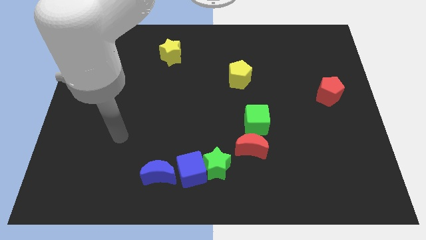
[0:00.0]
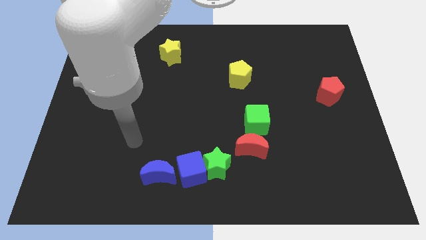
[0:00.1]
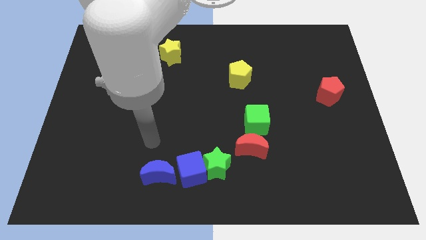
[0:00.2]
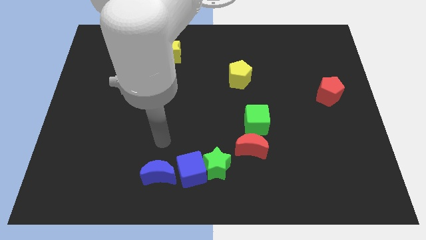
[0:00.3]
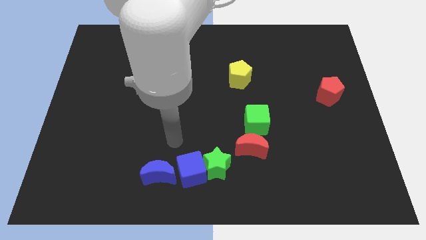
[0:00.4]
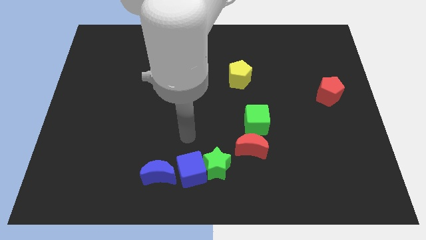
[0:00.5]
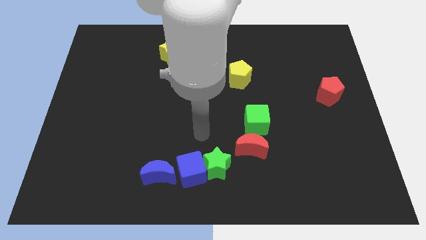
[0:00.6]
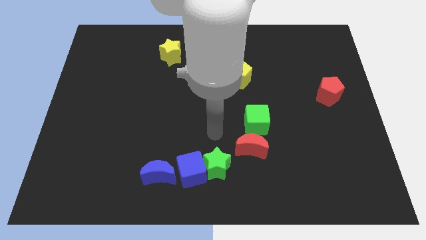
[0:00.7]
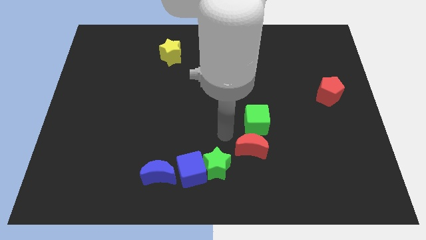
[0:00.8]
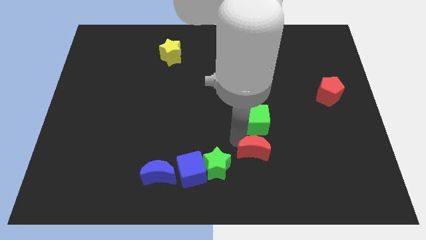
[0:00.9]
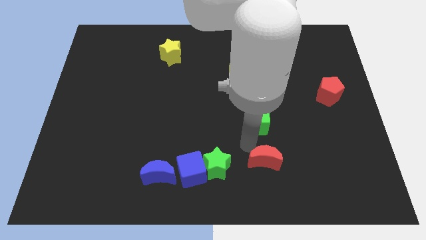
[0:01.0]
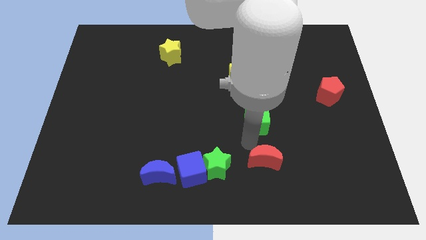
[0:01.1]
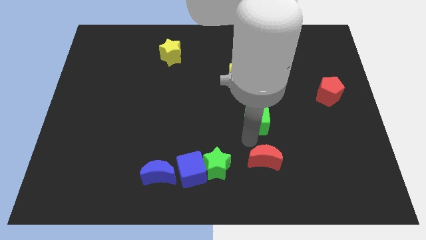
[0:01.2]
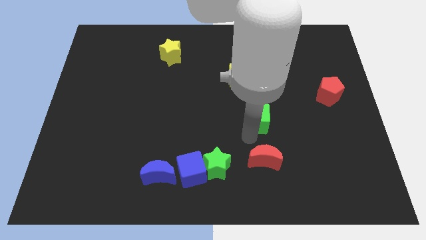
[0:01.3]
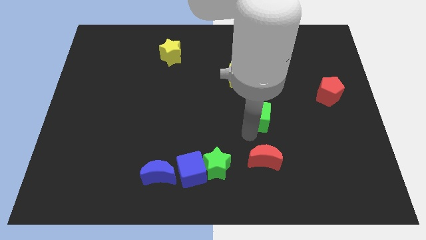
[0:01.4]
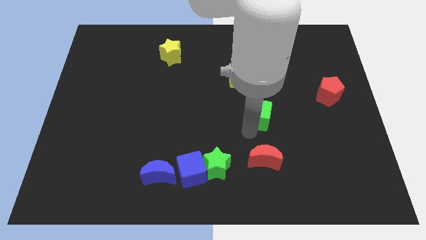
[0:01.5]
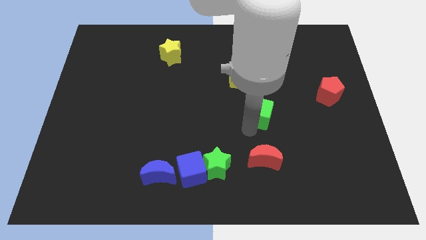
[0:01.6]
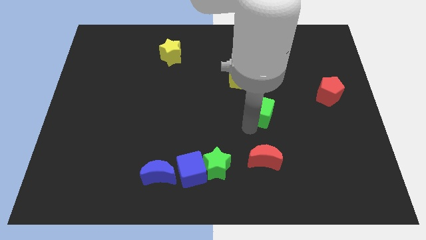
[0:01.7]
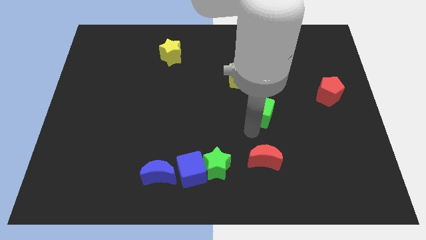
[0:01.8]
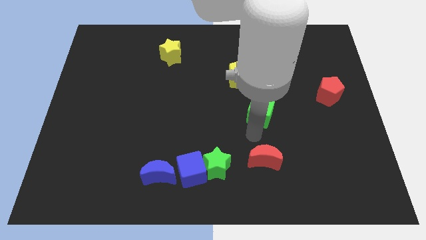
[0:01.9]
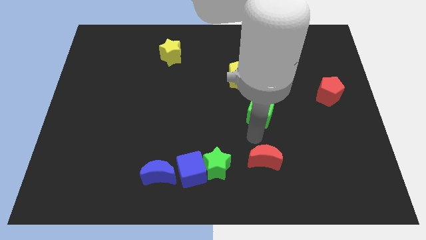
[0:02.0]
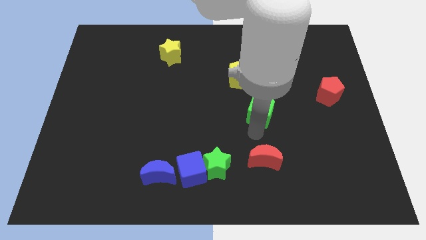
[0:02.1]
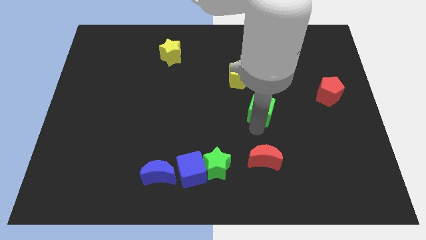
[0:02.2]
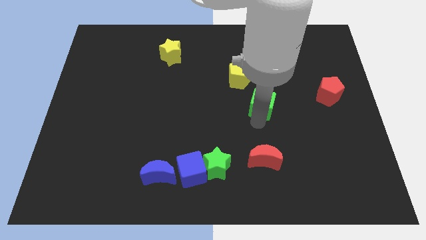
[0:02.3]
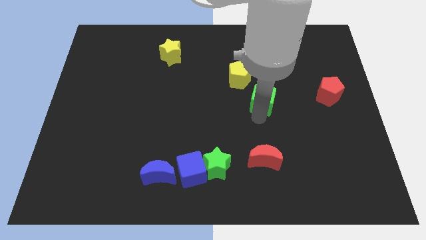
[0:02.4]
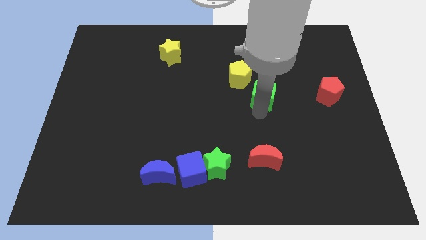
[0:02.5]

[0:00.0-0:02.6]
move the green cube up slightly

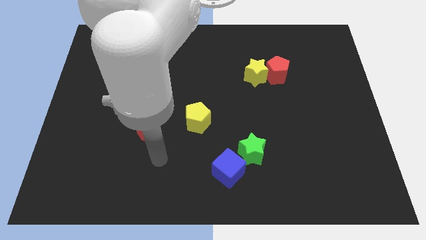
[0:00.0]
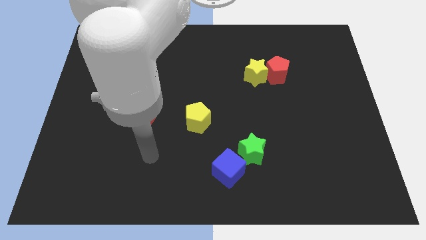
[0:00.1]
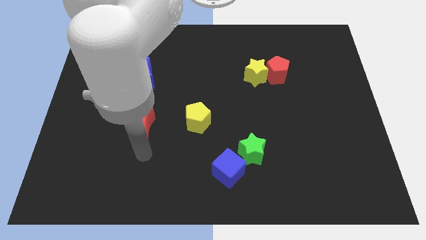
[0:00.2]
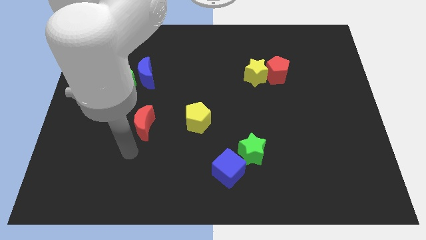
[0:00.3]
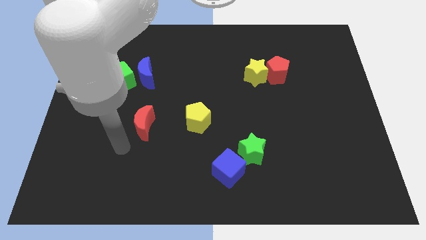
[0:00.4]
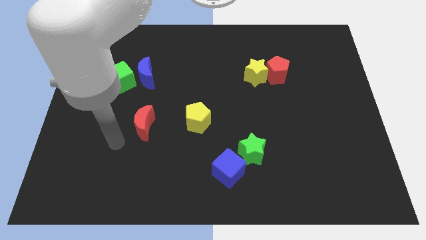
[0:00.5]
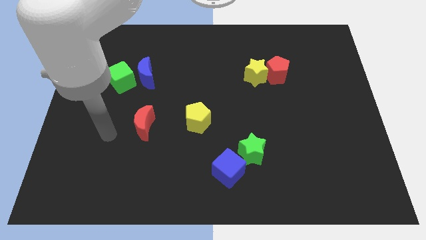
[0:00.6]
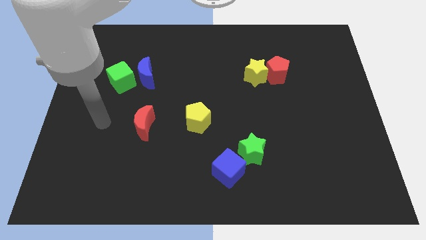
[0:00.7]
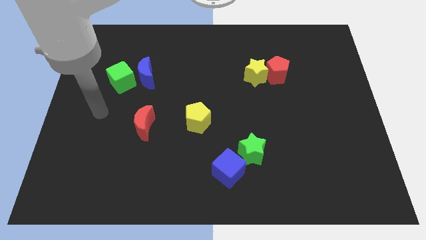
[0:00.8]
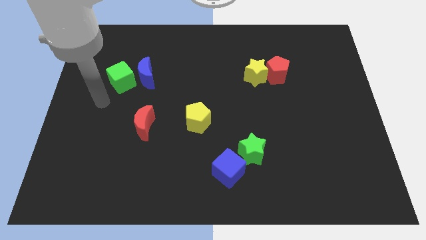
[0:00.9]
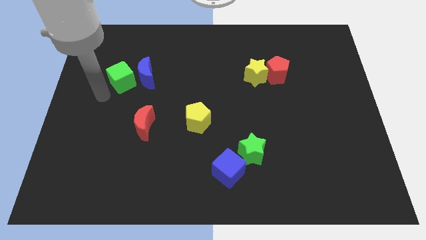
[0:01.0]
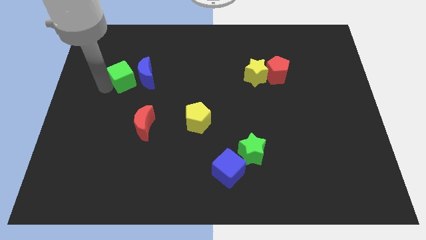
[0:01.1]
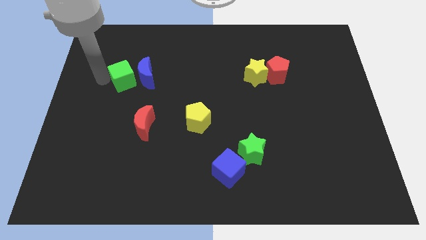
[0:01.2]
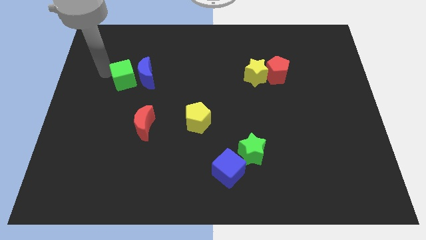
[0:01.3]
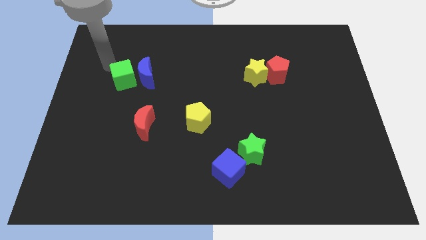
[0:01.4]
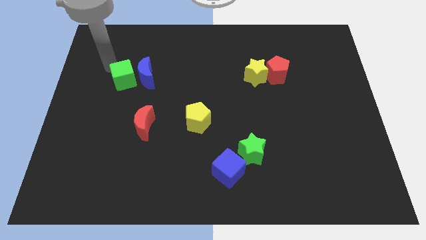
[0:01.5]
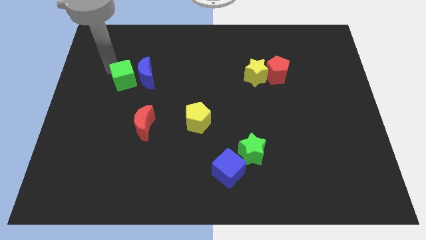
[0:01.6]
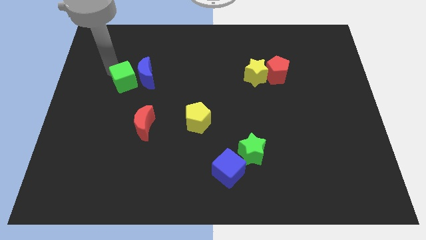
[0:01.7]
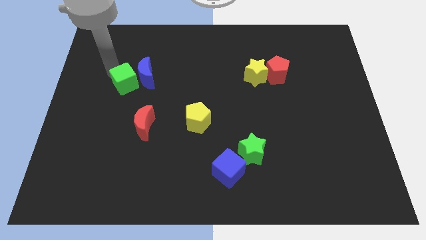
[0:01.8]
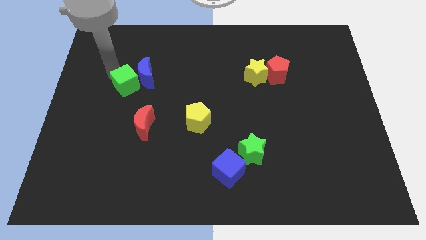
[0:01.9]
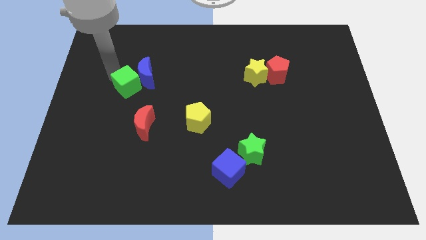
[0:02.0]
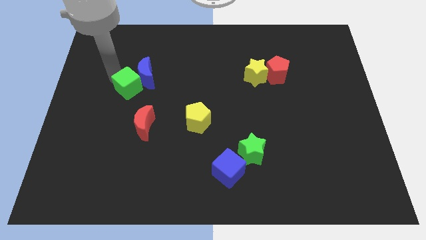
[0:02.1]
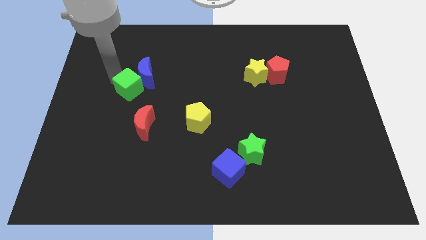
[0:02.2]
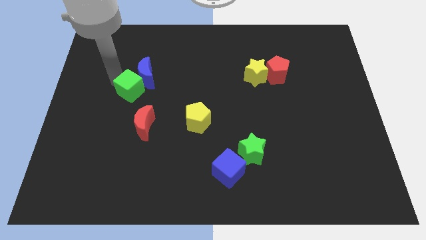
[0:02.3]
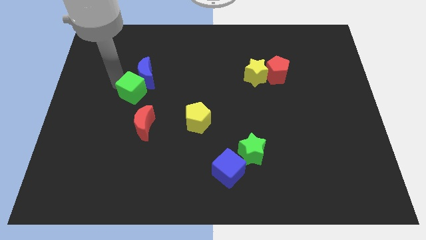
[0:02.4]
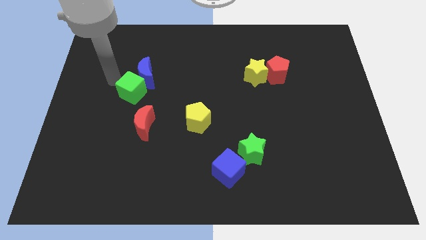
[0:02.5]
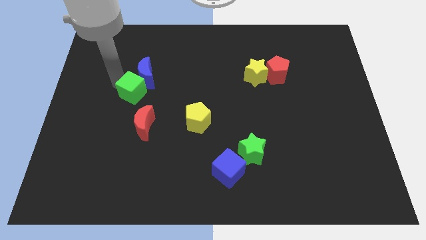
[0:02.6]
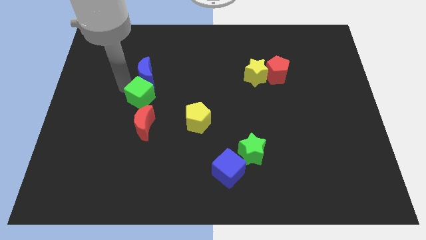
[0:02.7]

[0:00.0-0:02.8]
slide the green cube slightly down and to the right

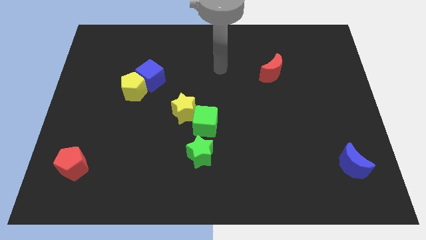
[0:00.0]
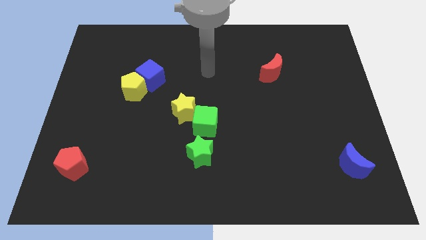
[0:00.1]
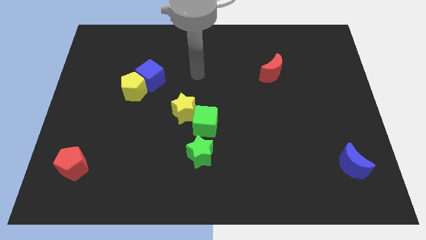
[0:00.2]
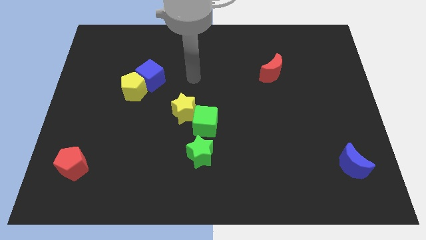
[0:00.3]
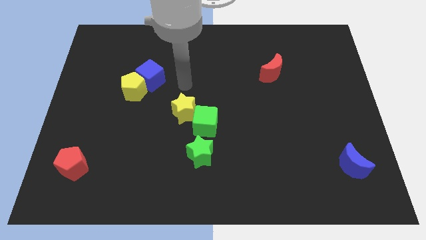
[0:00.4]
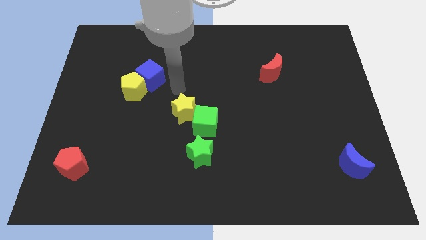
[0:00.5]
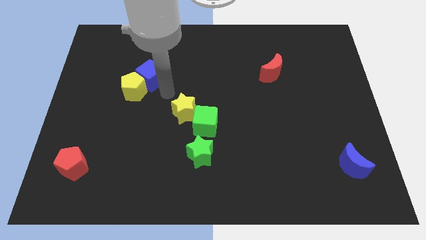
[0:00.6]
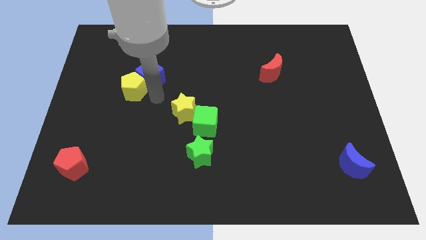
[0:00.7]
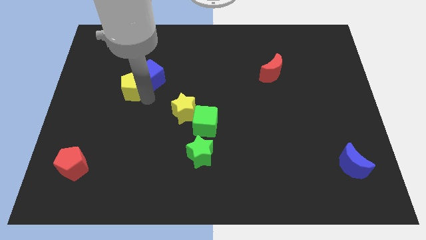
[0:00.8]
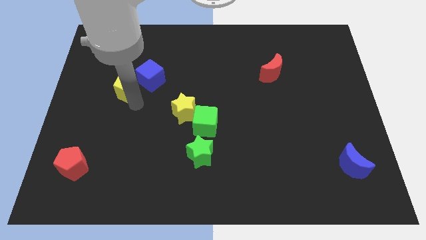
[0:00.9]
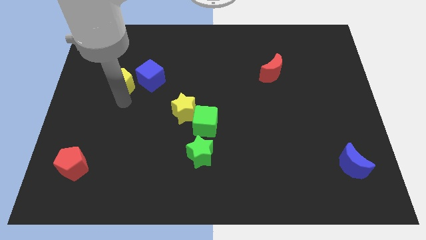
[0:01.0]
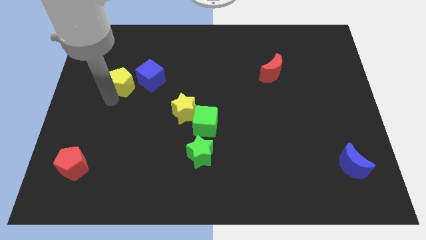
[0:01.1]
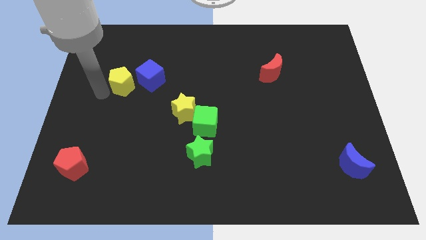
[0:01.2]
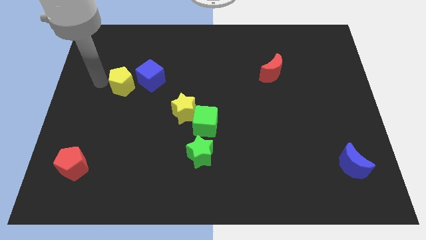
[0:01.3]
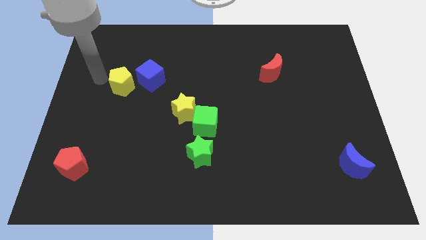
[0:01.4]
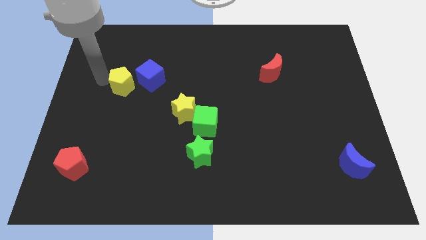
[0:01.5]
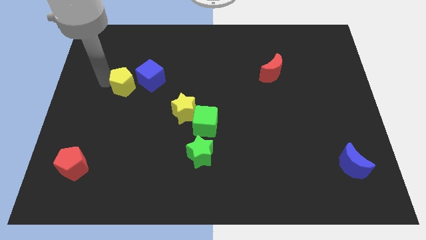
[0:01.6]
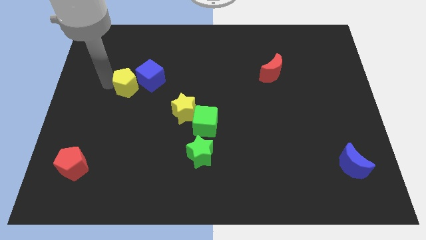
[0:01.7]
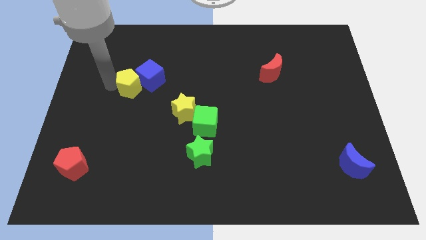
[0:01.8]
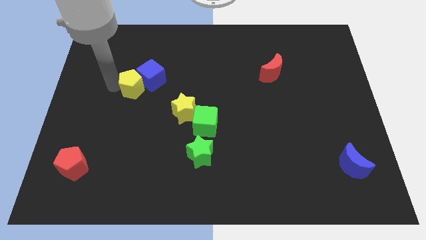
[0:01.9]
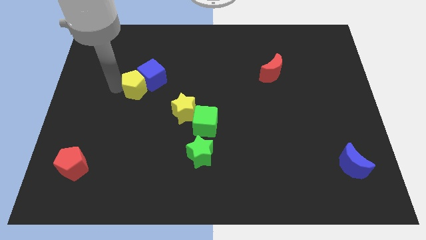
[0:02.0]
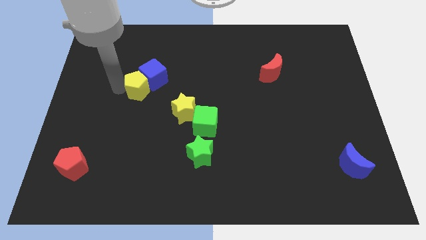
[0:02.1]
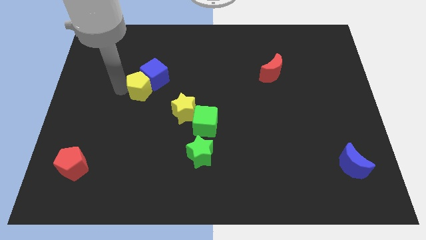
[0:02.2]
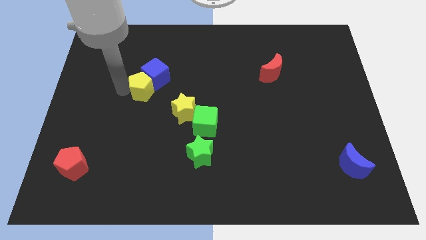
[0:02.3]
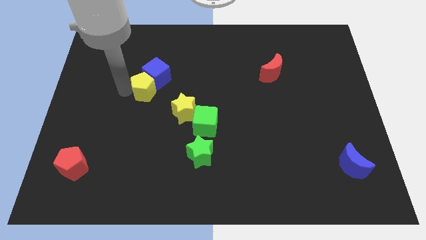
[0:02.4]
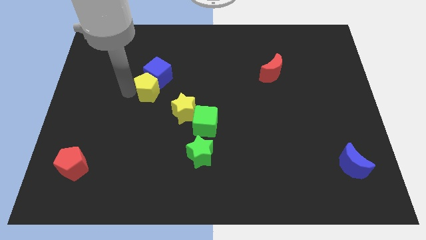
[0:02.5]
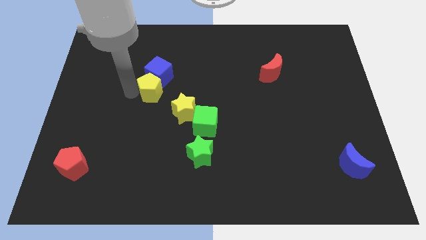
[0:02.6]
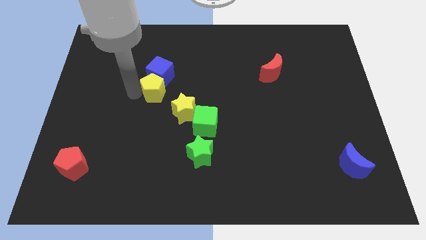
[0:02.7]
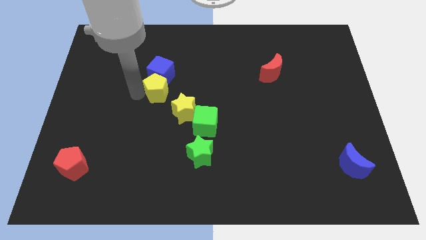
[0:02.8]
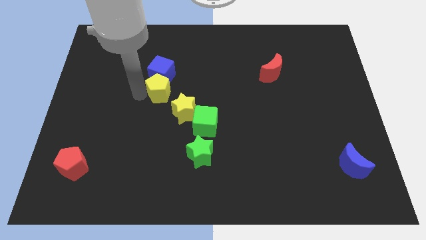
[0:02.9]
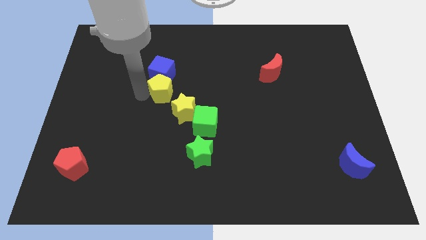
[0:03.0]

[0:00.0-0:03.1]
slide the yellow pentagon right a little bit
